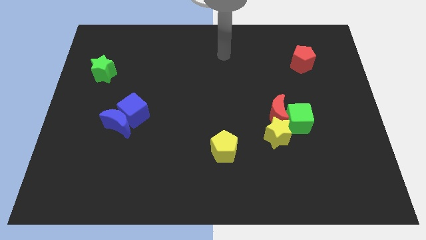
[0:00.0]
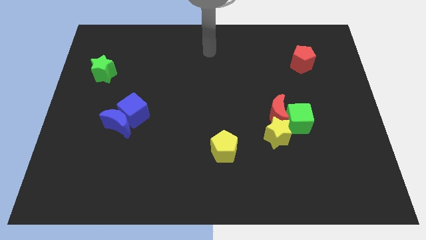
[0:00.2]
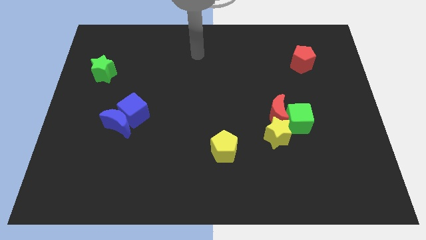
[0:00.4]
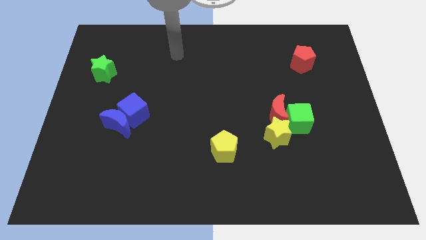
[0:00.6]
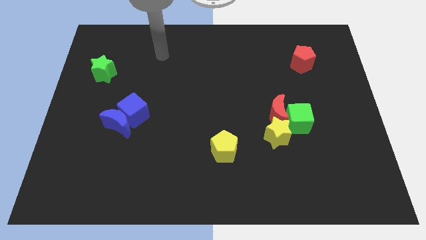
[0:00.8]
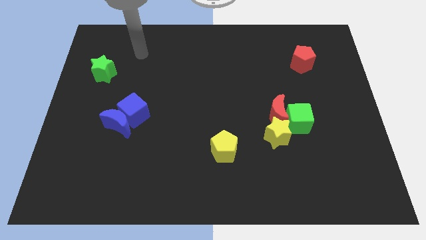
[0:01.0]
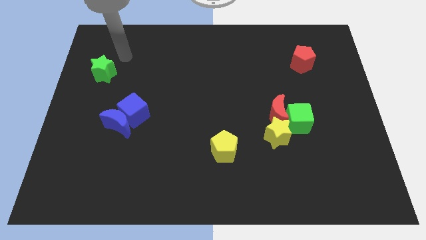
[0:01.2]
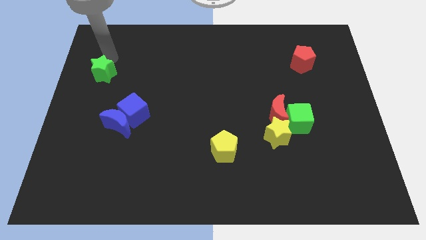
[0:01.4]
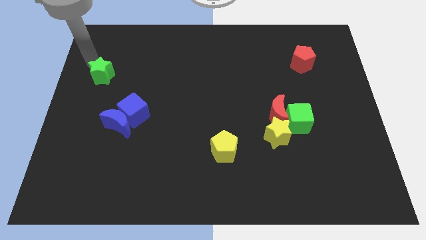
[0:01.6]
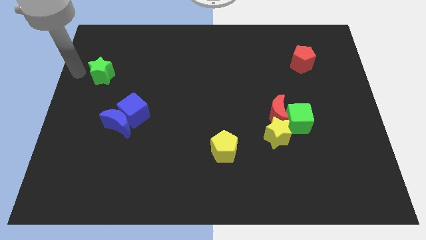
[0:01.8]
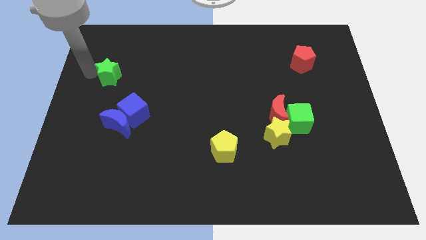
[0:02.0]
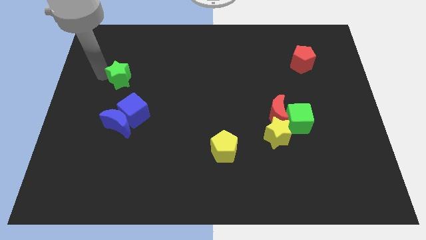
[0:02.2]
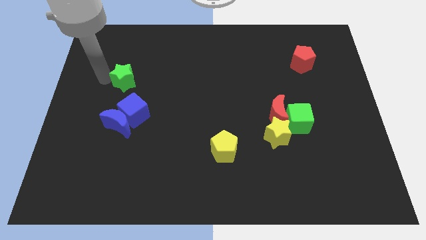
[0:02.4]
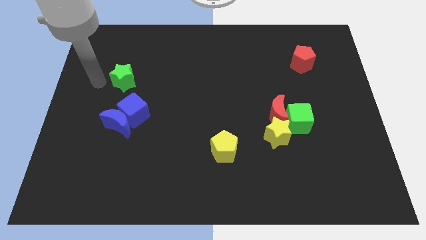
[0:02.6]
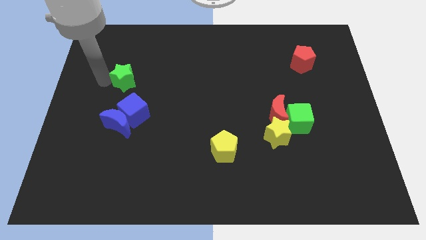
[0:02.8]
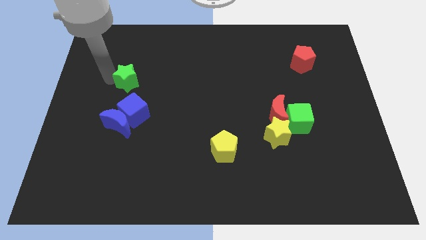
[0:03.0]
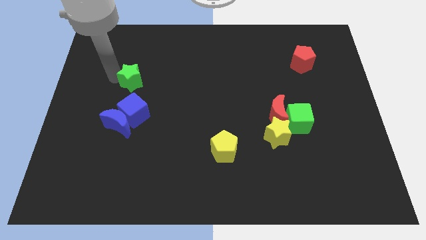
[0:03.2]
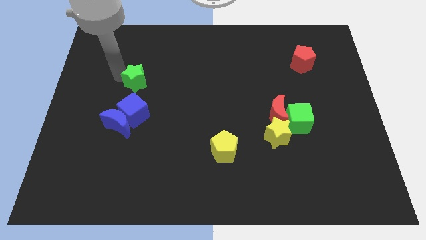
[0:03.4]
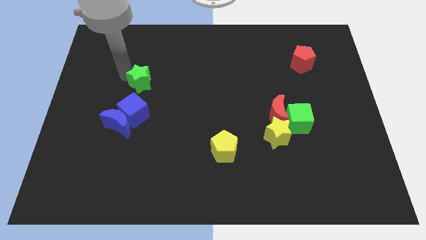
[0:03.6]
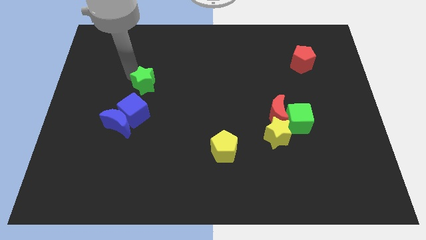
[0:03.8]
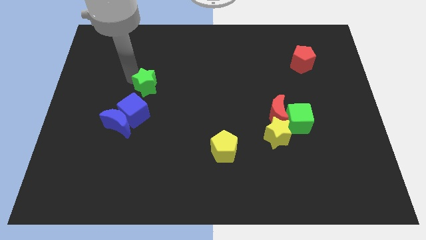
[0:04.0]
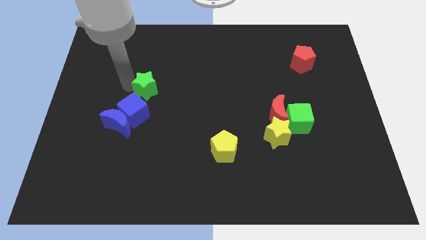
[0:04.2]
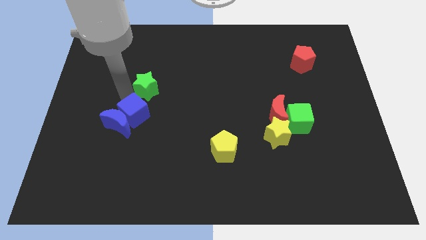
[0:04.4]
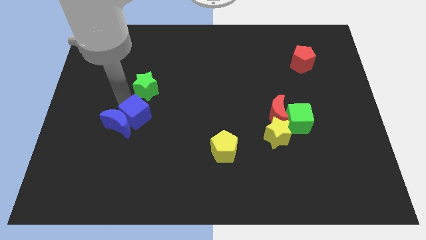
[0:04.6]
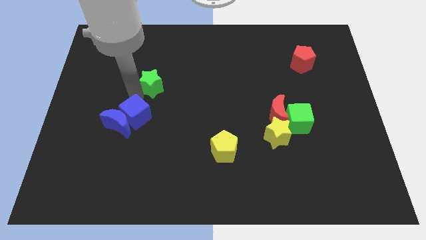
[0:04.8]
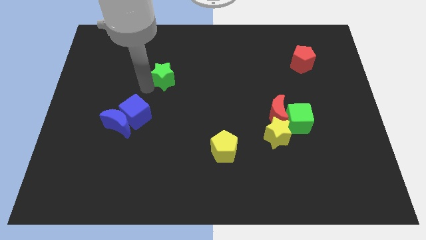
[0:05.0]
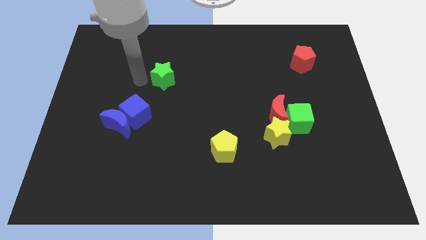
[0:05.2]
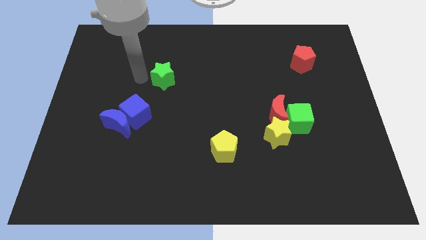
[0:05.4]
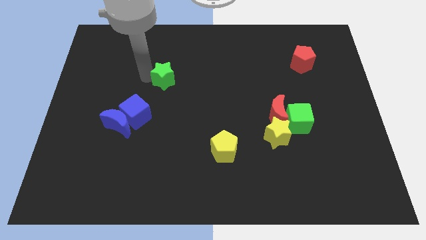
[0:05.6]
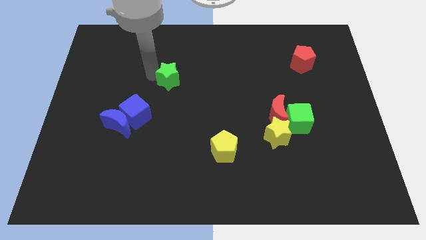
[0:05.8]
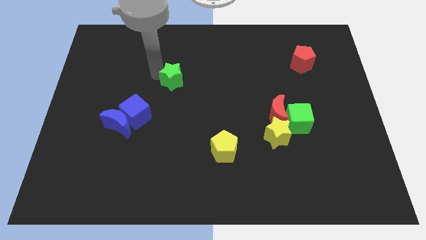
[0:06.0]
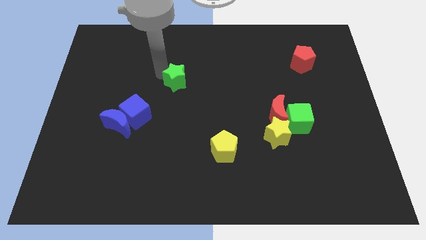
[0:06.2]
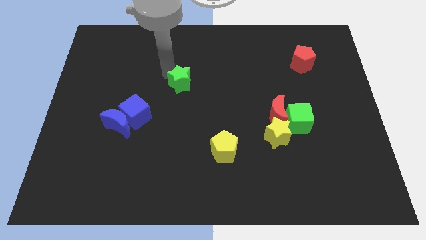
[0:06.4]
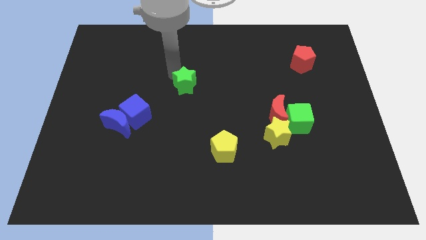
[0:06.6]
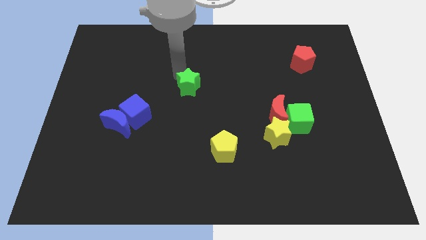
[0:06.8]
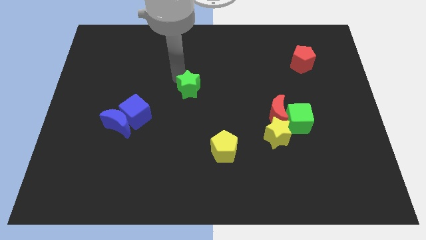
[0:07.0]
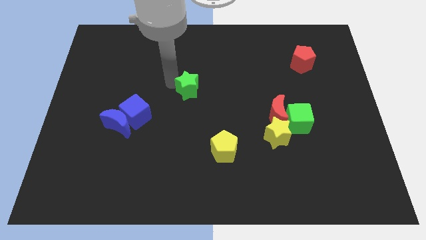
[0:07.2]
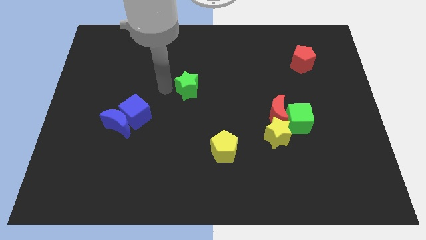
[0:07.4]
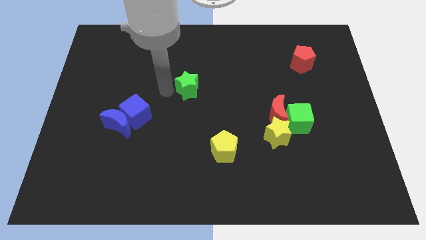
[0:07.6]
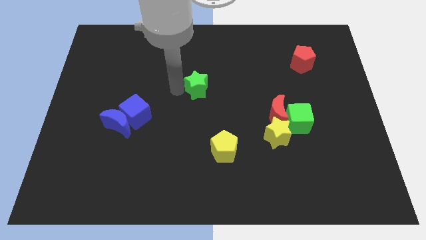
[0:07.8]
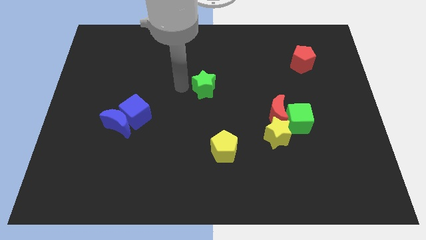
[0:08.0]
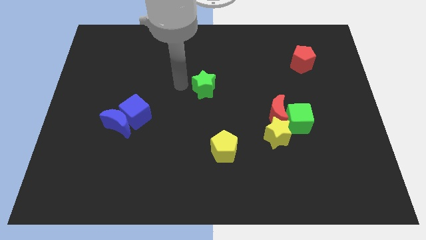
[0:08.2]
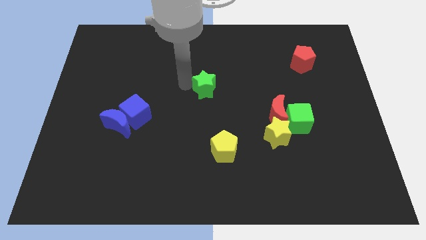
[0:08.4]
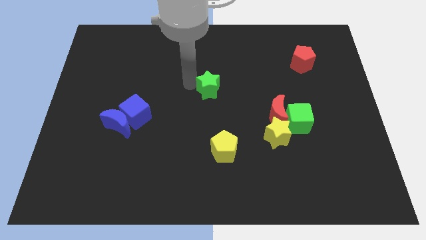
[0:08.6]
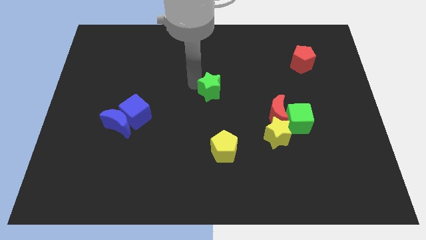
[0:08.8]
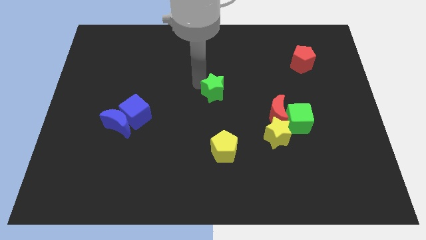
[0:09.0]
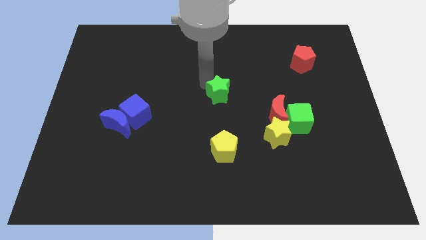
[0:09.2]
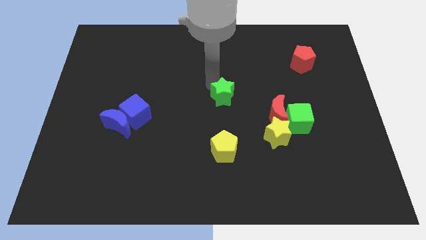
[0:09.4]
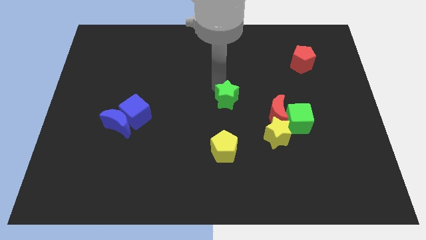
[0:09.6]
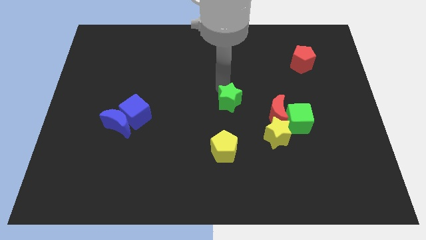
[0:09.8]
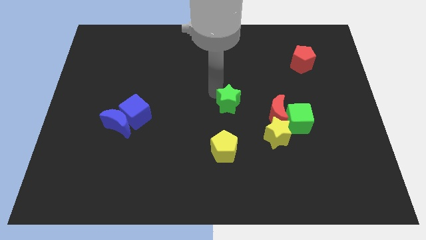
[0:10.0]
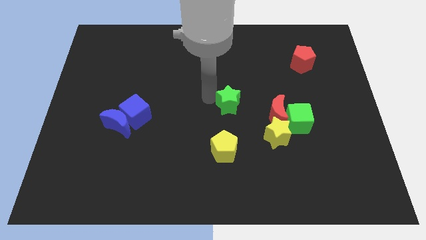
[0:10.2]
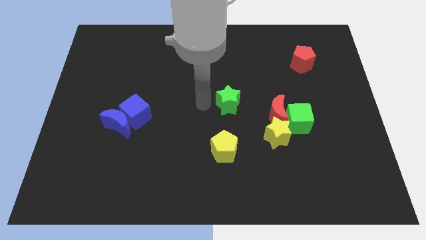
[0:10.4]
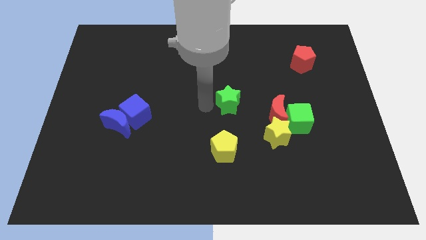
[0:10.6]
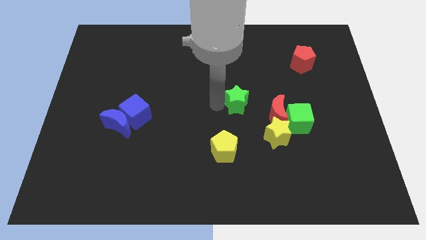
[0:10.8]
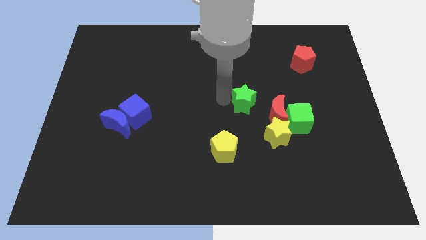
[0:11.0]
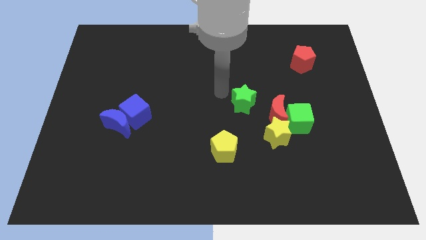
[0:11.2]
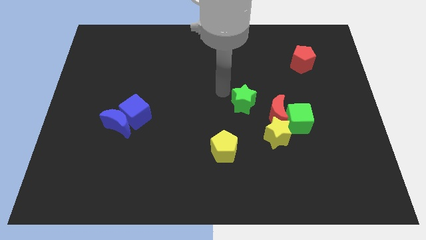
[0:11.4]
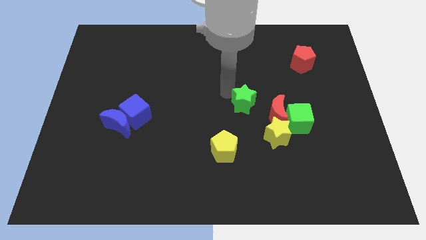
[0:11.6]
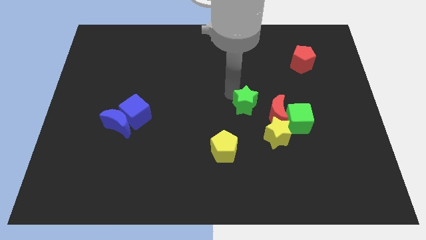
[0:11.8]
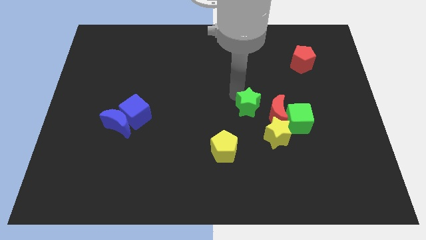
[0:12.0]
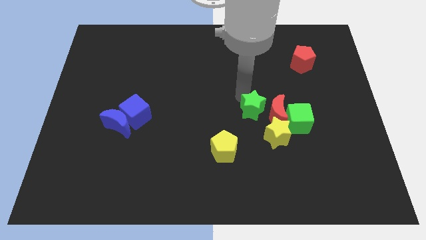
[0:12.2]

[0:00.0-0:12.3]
slide the green star close to the red moon

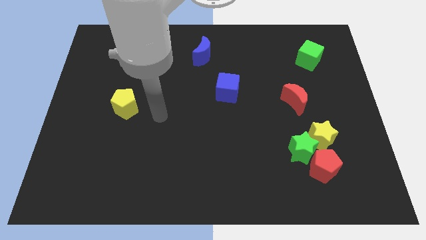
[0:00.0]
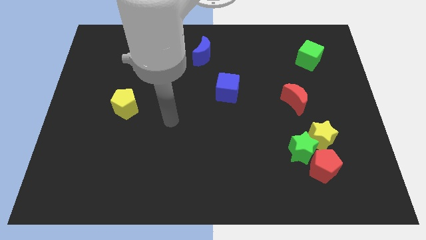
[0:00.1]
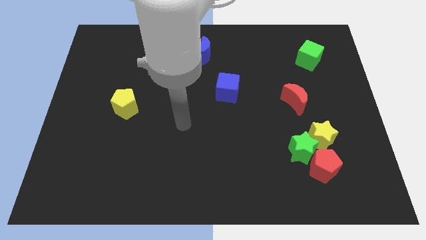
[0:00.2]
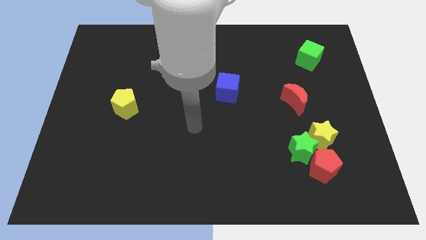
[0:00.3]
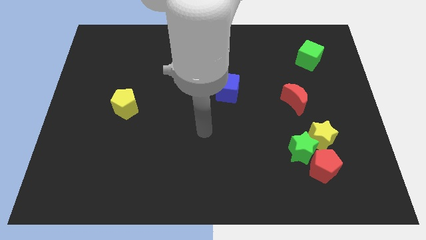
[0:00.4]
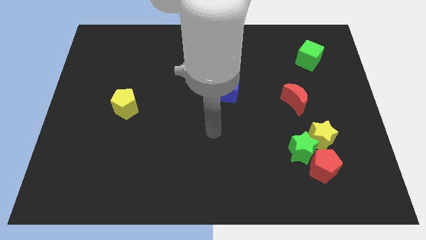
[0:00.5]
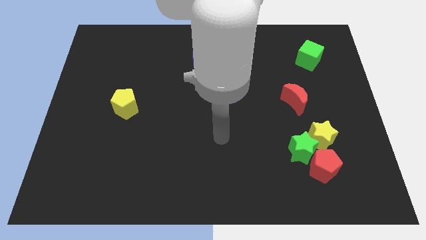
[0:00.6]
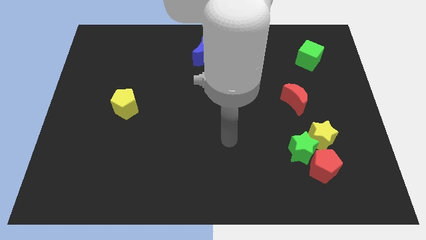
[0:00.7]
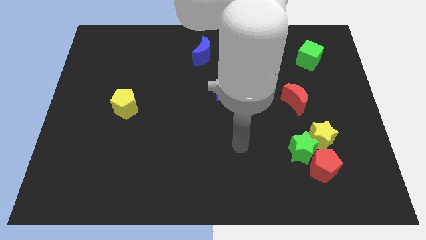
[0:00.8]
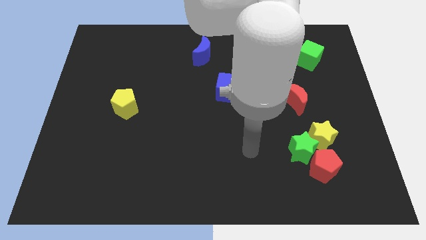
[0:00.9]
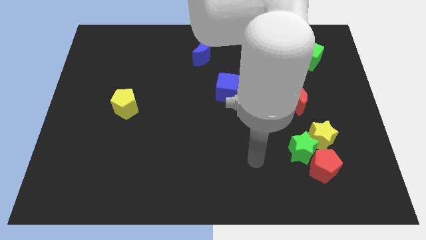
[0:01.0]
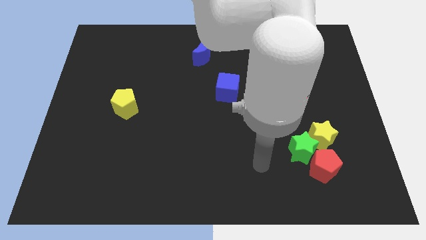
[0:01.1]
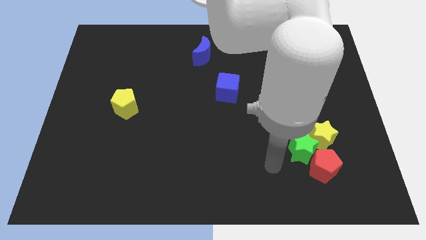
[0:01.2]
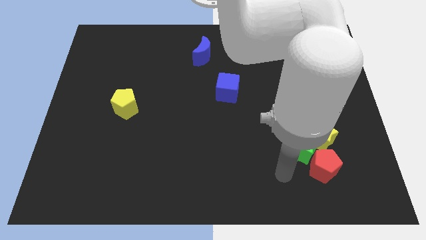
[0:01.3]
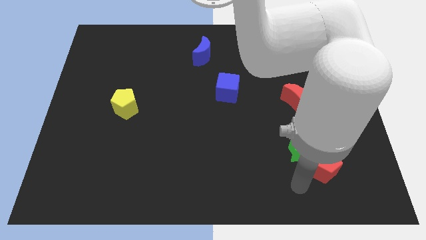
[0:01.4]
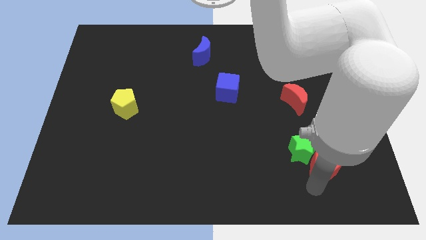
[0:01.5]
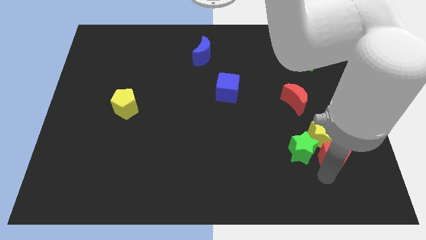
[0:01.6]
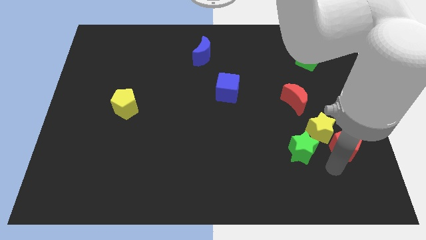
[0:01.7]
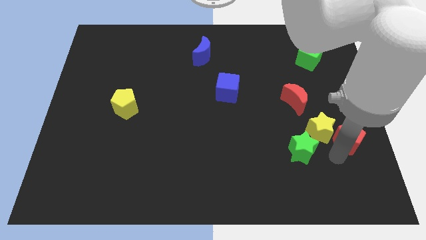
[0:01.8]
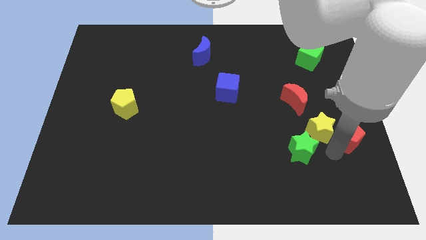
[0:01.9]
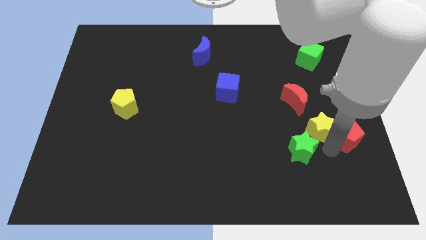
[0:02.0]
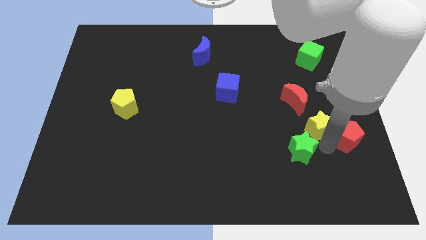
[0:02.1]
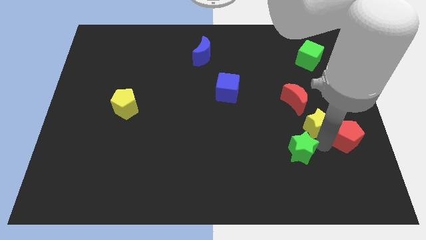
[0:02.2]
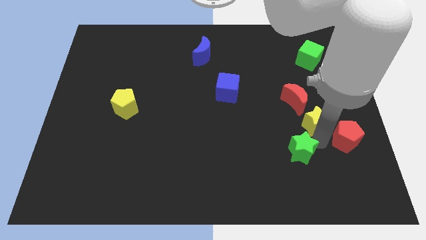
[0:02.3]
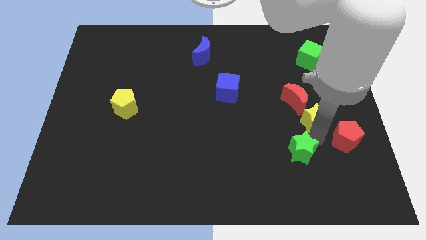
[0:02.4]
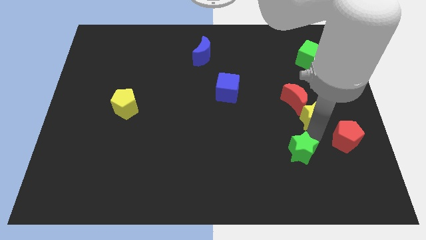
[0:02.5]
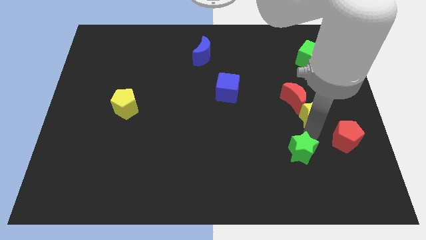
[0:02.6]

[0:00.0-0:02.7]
move the yellow star towards the red moon
